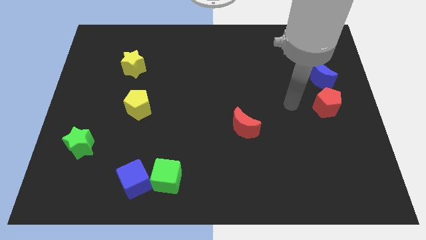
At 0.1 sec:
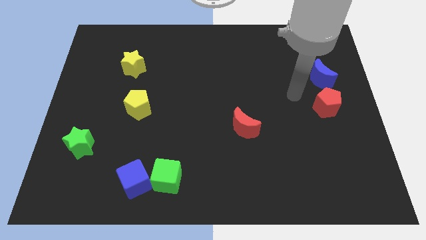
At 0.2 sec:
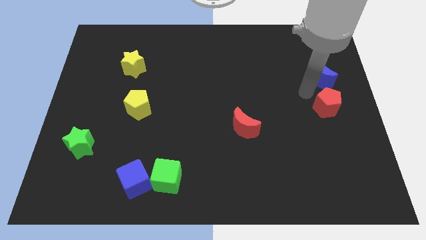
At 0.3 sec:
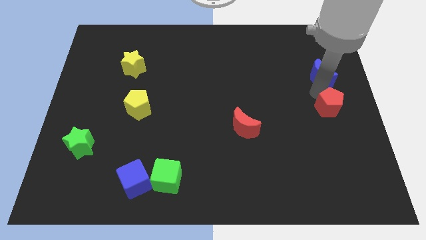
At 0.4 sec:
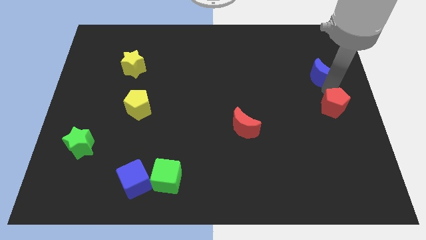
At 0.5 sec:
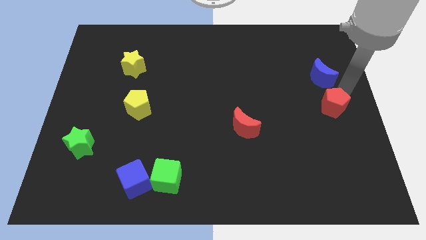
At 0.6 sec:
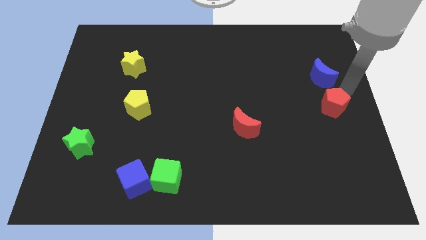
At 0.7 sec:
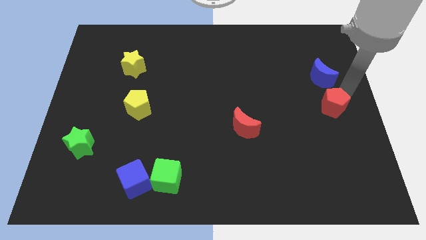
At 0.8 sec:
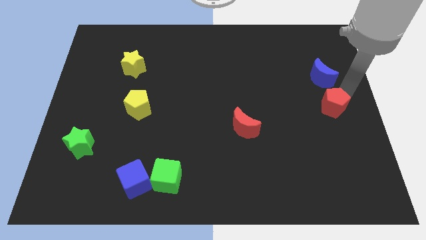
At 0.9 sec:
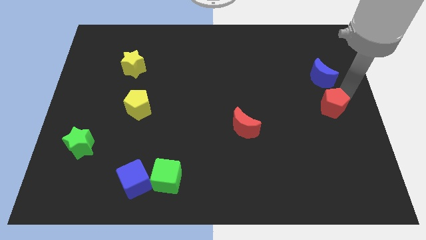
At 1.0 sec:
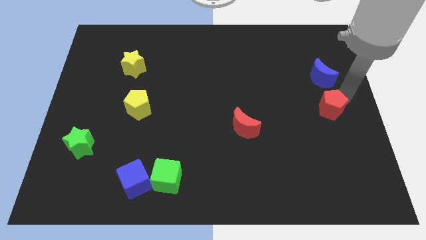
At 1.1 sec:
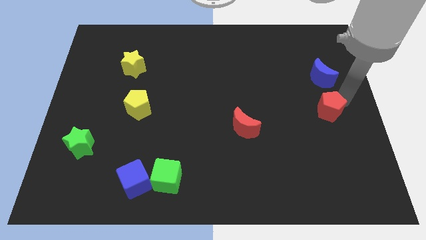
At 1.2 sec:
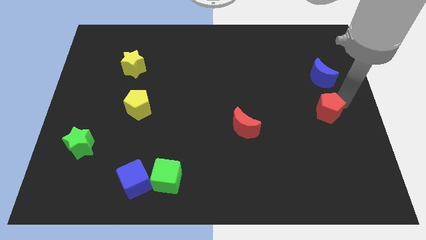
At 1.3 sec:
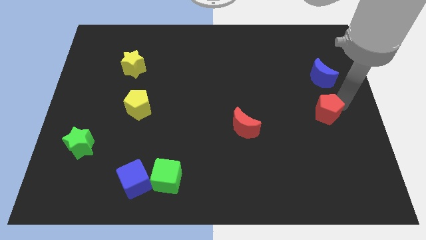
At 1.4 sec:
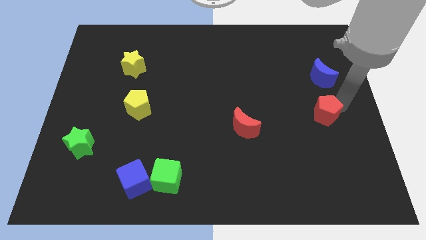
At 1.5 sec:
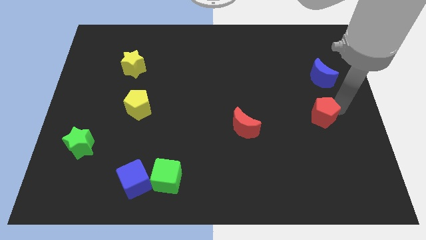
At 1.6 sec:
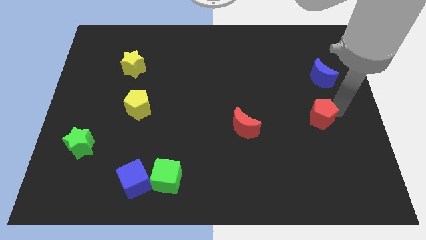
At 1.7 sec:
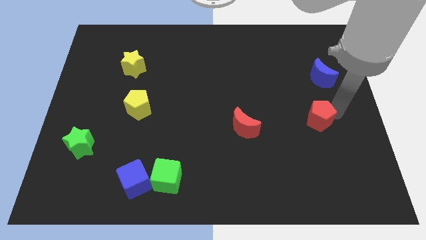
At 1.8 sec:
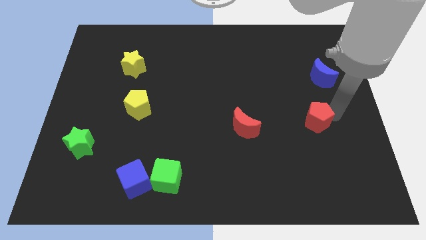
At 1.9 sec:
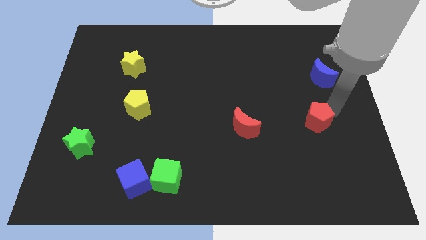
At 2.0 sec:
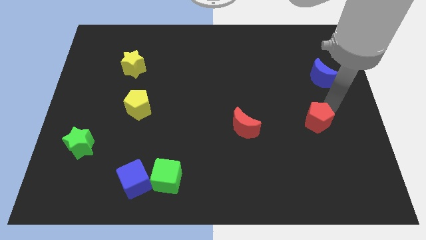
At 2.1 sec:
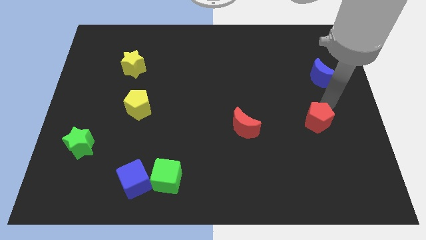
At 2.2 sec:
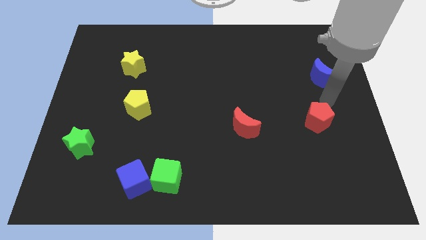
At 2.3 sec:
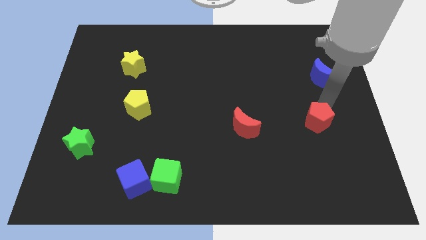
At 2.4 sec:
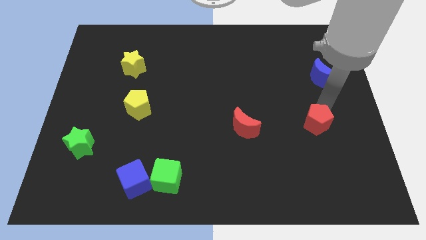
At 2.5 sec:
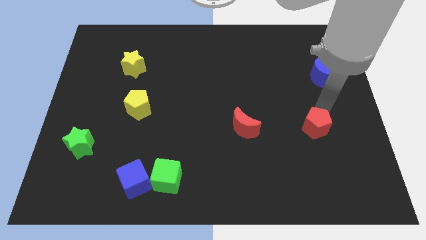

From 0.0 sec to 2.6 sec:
push the red pentagon a little down and to the left

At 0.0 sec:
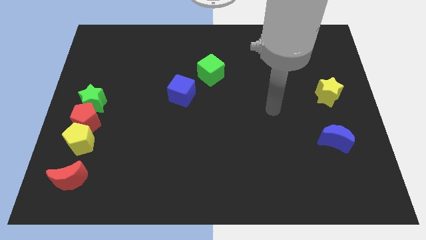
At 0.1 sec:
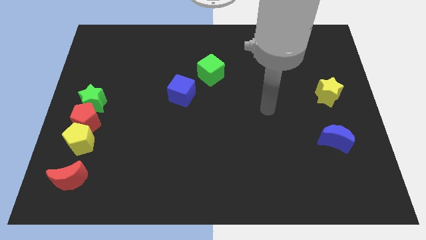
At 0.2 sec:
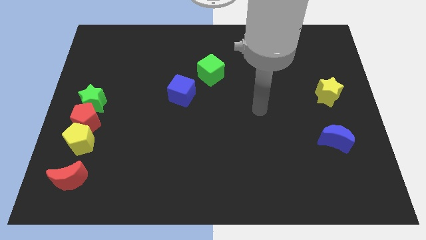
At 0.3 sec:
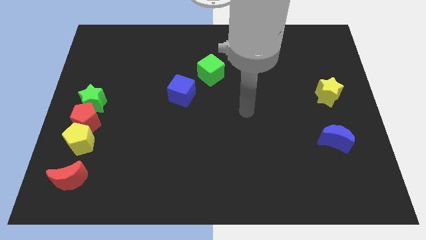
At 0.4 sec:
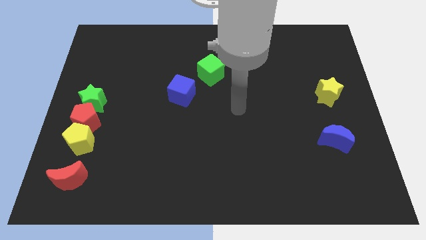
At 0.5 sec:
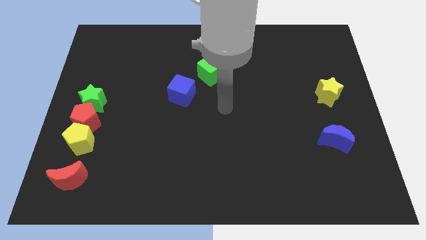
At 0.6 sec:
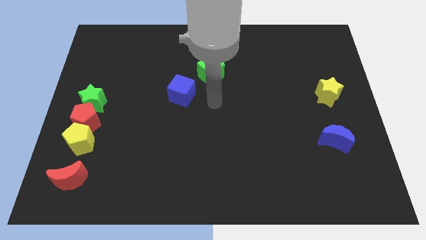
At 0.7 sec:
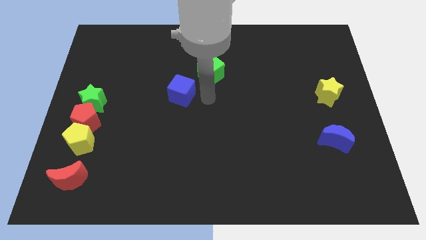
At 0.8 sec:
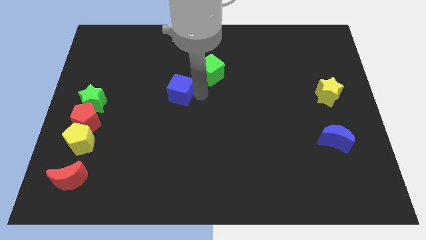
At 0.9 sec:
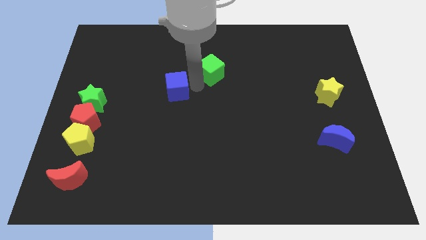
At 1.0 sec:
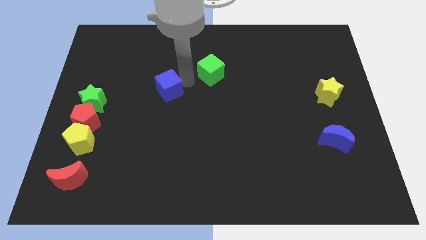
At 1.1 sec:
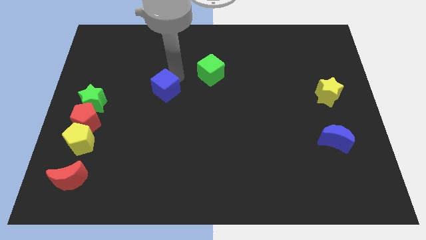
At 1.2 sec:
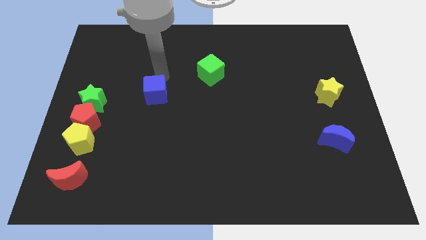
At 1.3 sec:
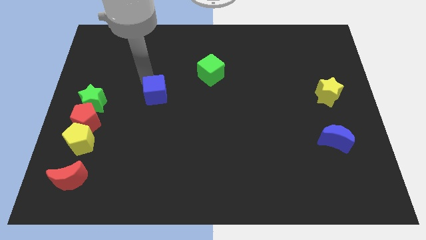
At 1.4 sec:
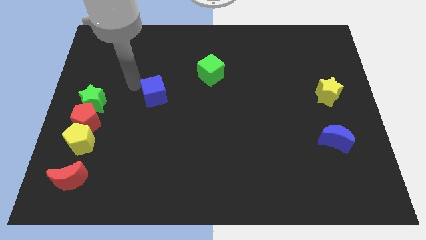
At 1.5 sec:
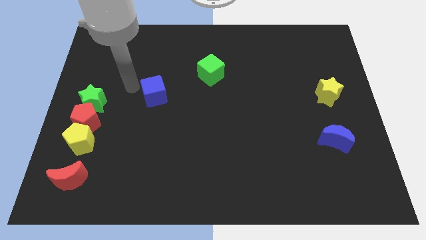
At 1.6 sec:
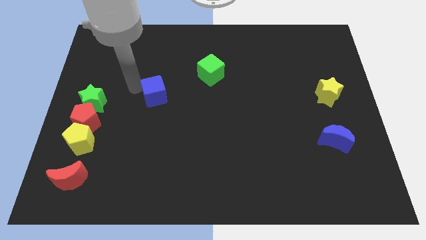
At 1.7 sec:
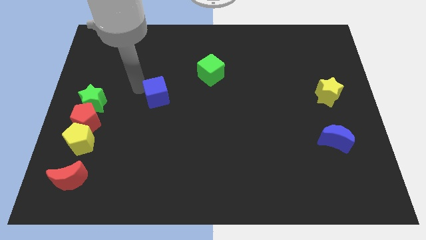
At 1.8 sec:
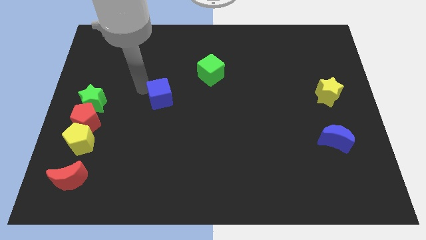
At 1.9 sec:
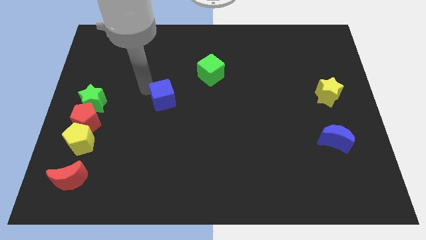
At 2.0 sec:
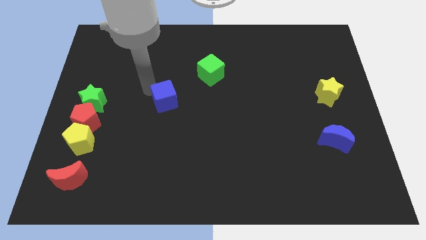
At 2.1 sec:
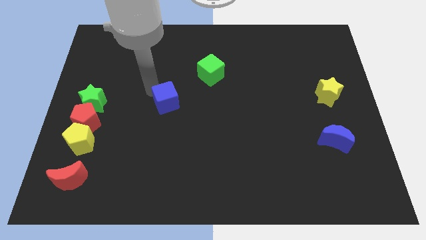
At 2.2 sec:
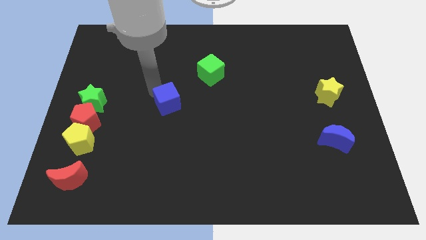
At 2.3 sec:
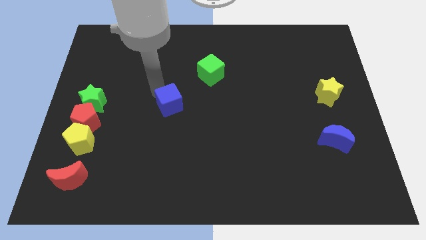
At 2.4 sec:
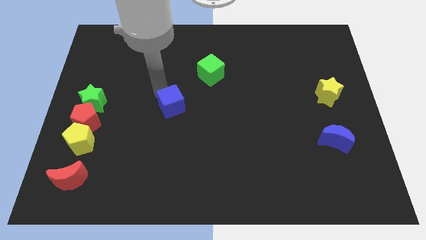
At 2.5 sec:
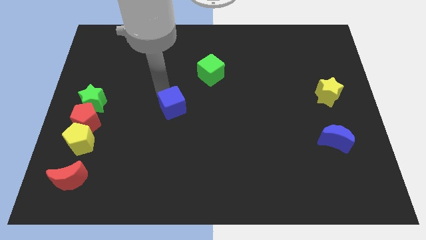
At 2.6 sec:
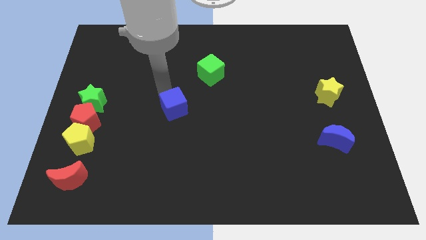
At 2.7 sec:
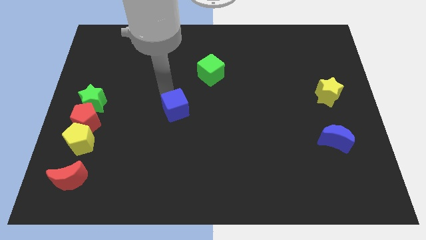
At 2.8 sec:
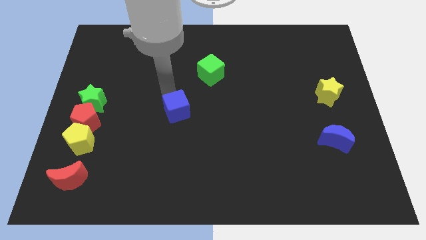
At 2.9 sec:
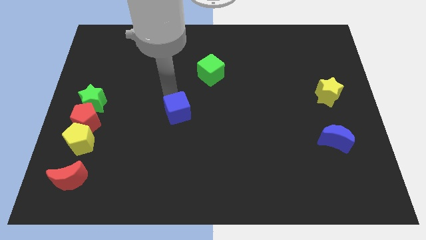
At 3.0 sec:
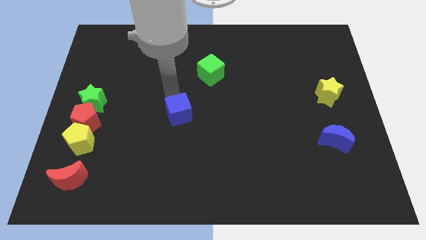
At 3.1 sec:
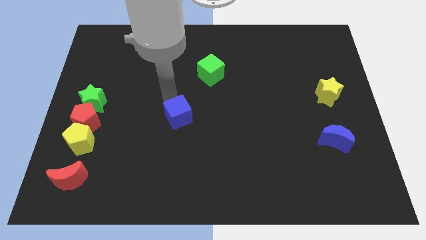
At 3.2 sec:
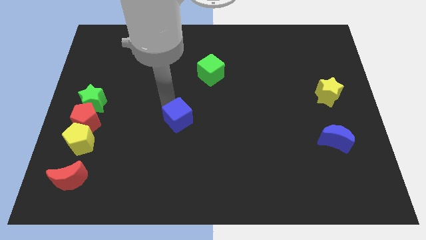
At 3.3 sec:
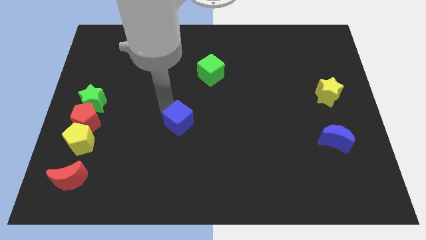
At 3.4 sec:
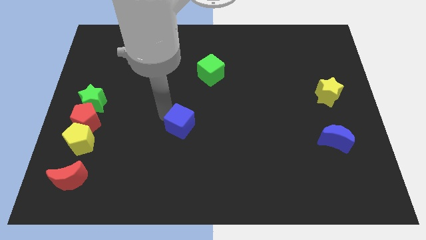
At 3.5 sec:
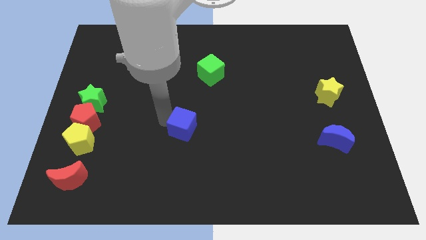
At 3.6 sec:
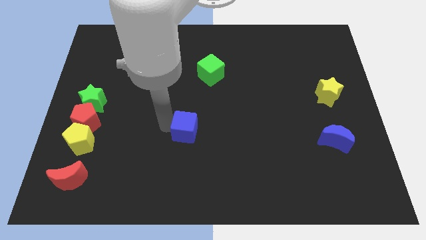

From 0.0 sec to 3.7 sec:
push the blue cube a bit diagonally down and to the right

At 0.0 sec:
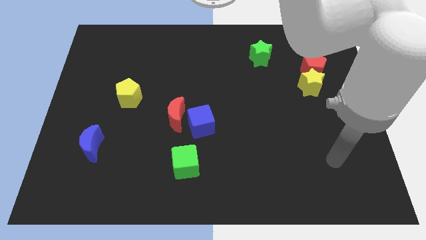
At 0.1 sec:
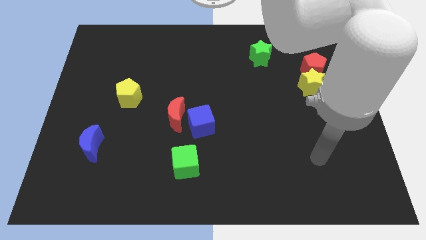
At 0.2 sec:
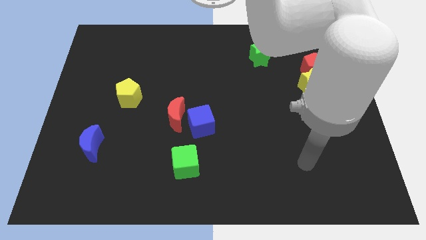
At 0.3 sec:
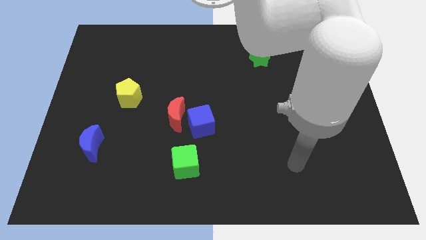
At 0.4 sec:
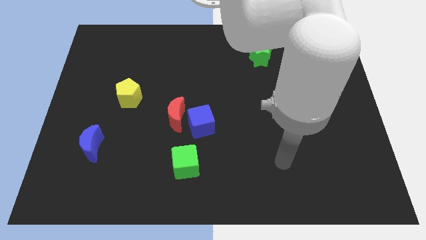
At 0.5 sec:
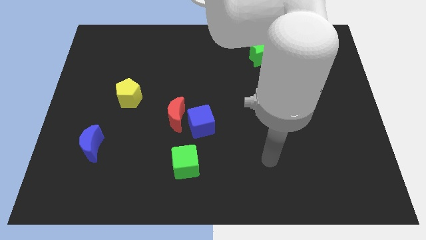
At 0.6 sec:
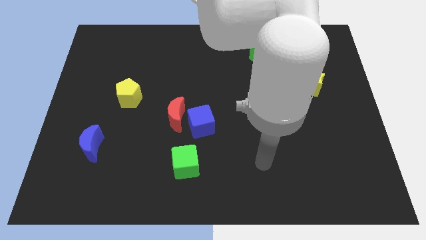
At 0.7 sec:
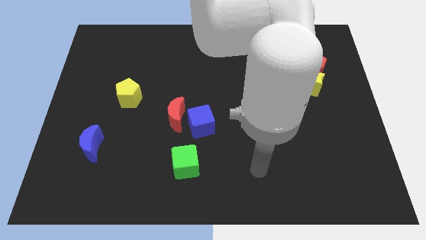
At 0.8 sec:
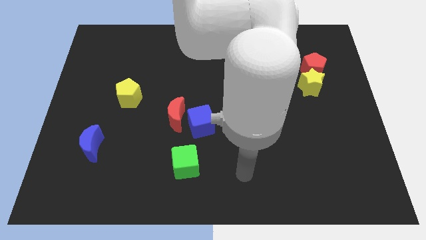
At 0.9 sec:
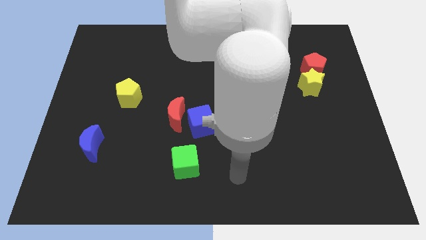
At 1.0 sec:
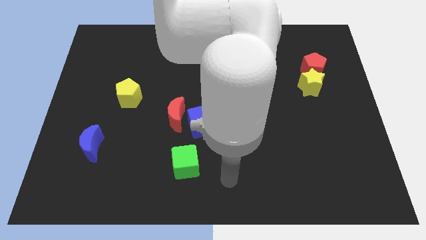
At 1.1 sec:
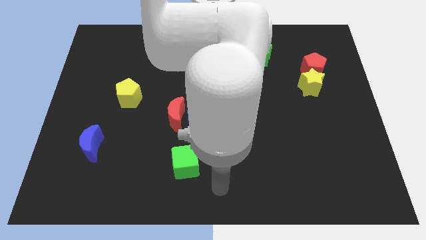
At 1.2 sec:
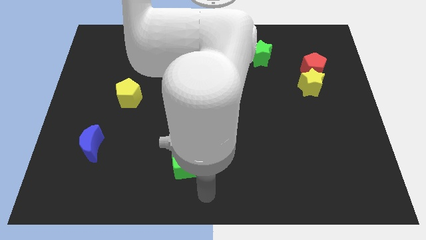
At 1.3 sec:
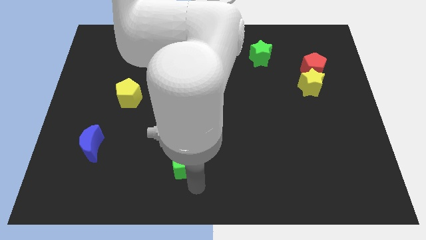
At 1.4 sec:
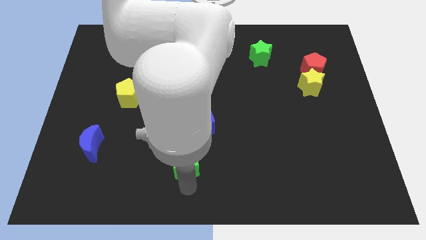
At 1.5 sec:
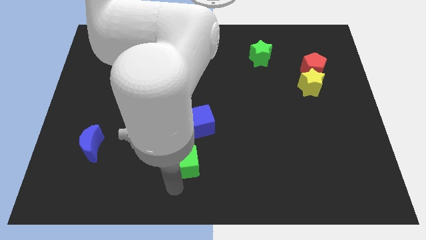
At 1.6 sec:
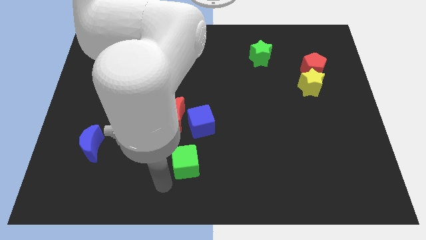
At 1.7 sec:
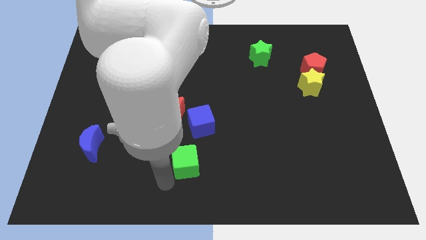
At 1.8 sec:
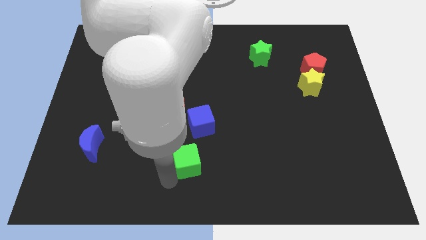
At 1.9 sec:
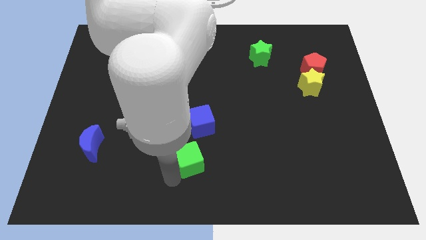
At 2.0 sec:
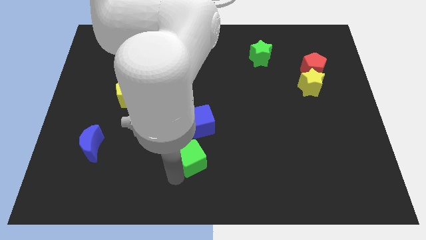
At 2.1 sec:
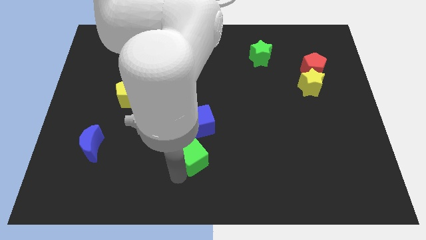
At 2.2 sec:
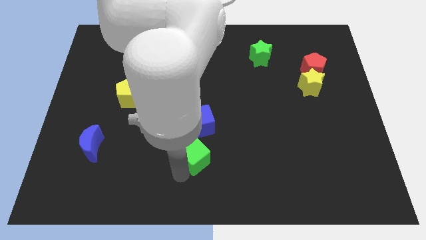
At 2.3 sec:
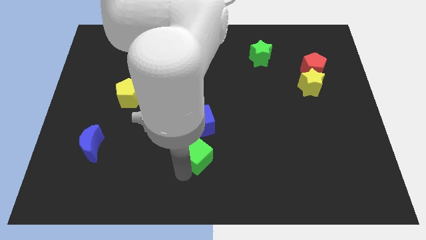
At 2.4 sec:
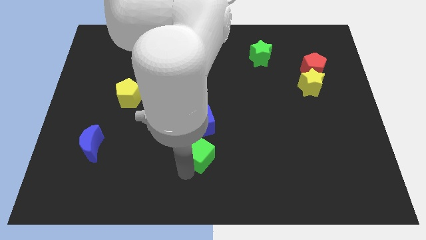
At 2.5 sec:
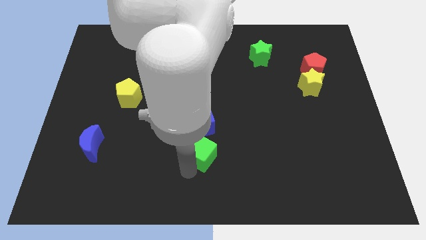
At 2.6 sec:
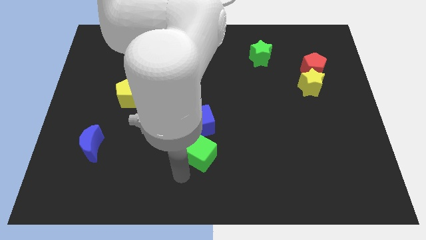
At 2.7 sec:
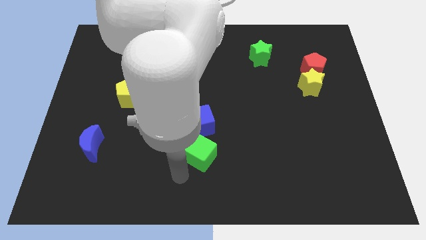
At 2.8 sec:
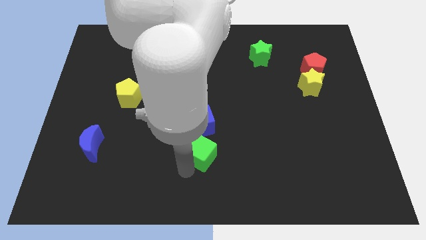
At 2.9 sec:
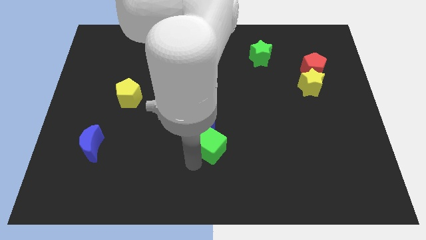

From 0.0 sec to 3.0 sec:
slightly slide the green cube up and right diagonally
